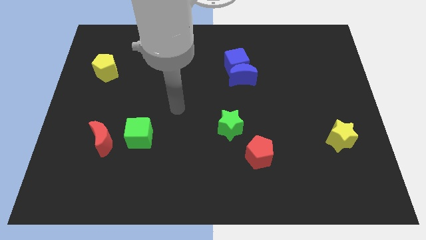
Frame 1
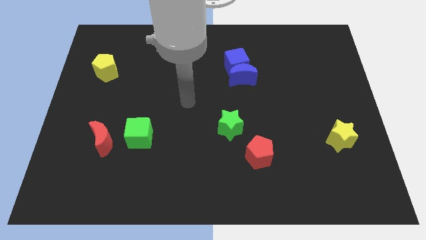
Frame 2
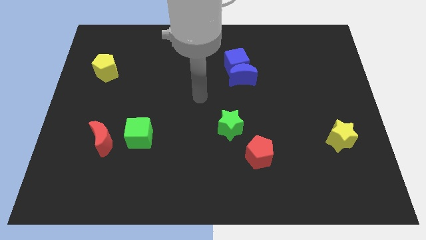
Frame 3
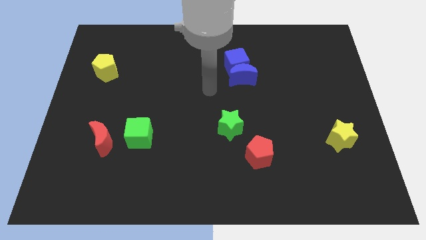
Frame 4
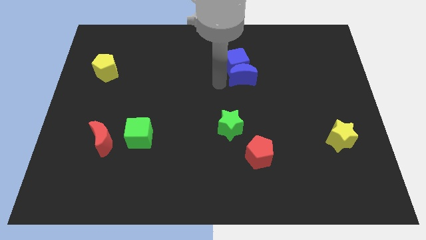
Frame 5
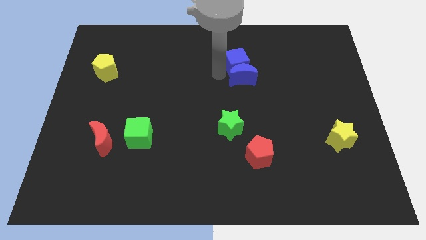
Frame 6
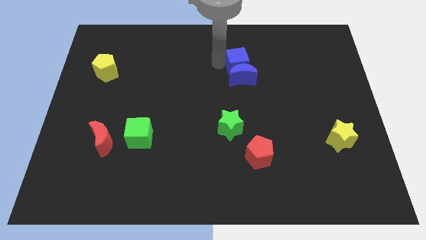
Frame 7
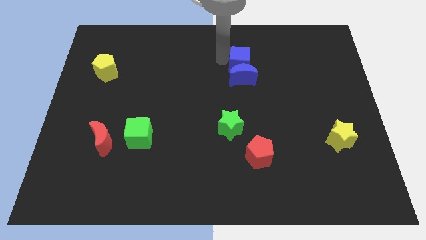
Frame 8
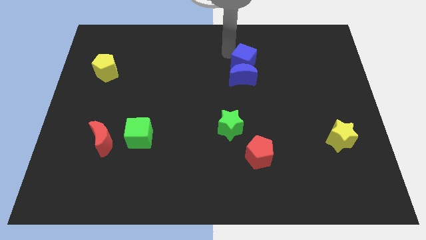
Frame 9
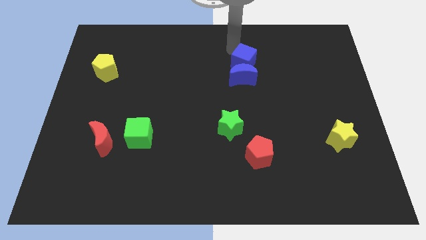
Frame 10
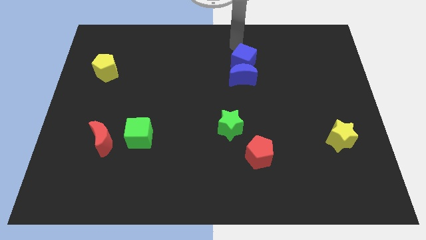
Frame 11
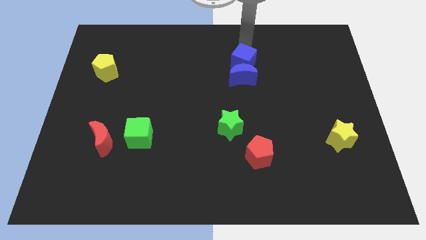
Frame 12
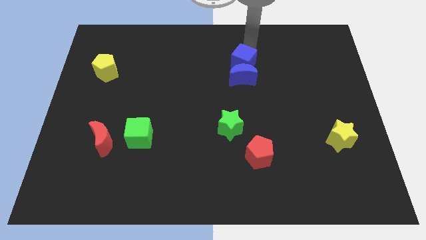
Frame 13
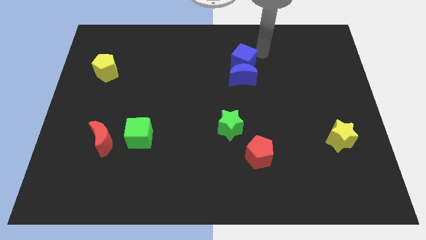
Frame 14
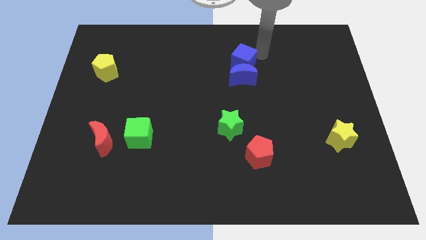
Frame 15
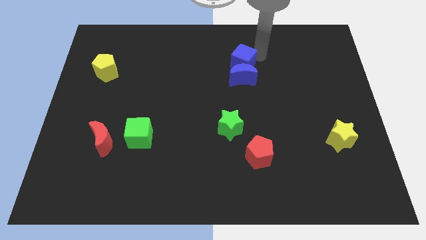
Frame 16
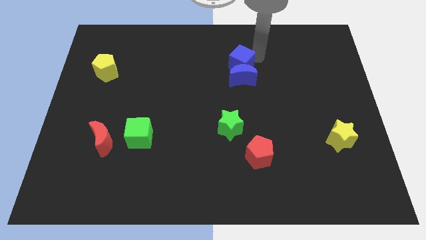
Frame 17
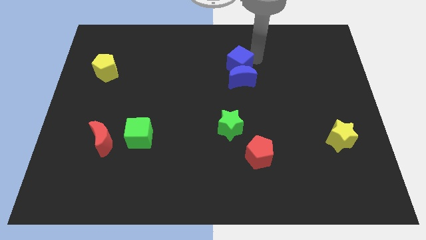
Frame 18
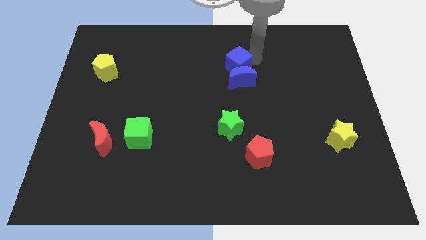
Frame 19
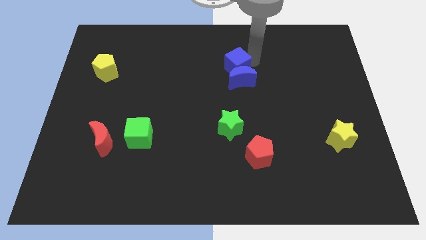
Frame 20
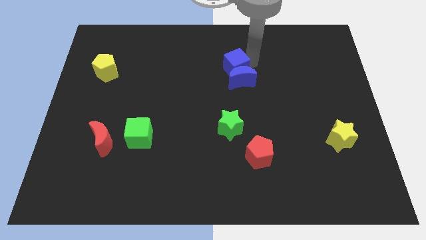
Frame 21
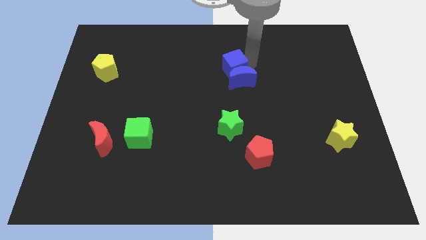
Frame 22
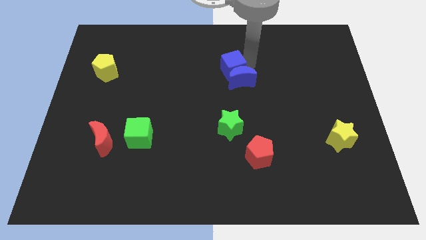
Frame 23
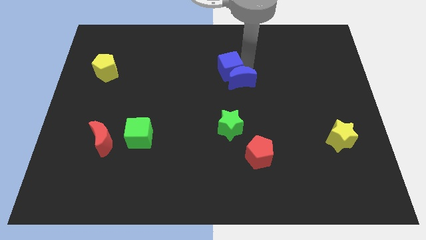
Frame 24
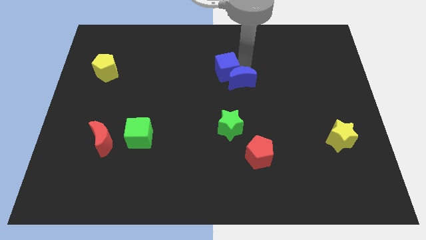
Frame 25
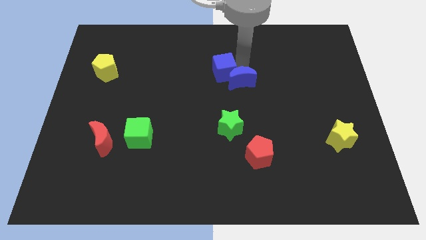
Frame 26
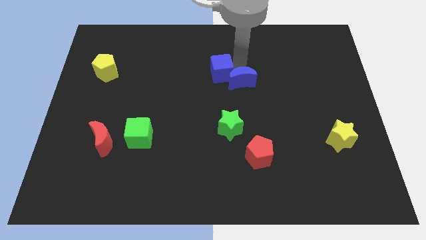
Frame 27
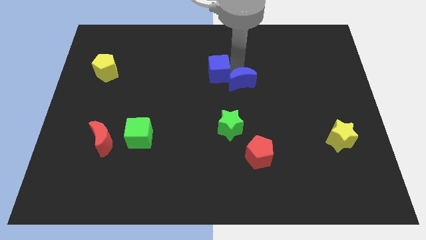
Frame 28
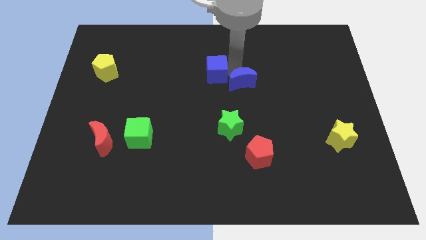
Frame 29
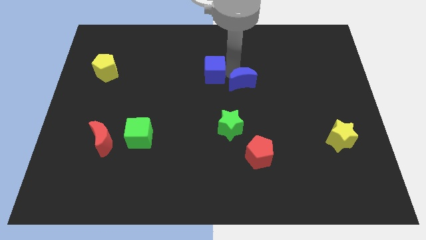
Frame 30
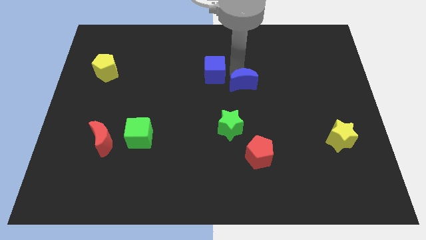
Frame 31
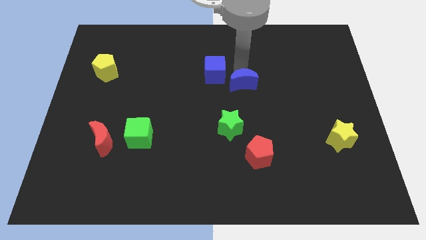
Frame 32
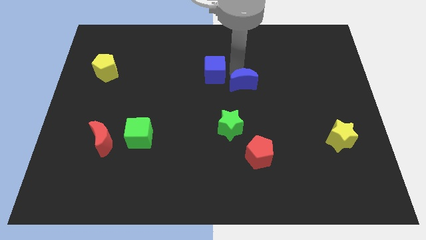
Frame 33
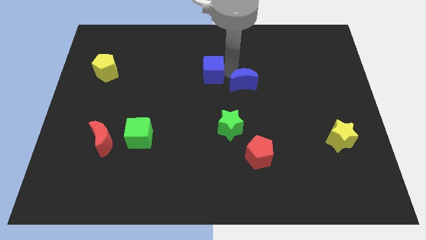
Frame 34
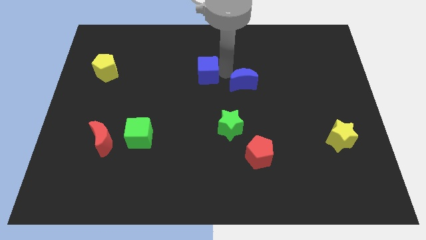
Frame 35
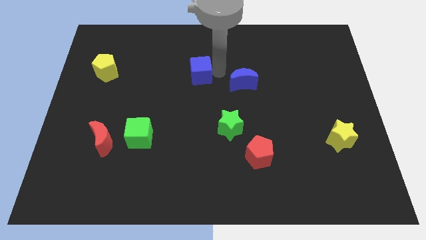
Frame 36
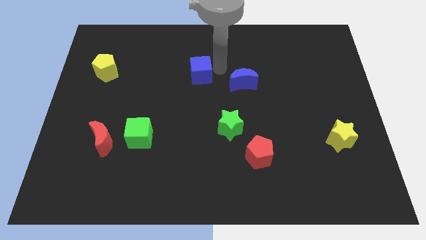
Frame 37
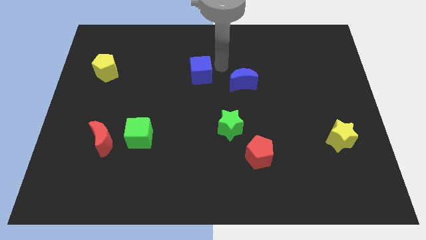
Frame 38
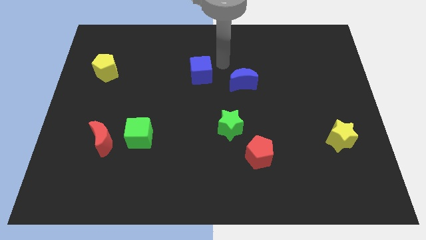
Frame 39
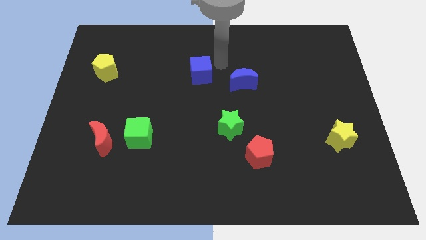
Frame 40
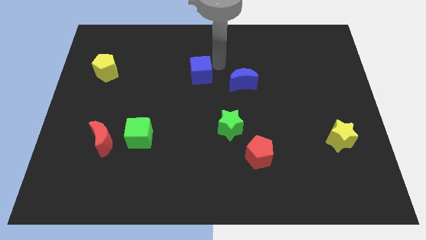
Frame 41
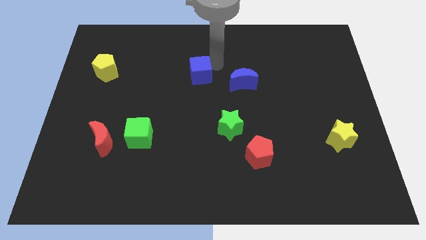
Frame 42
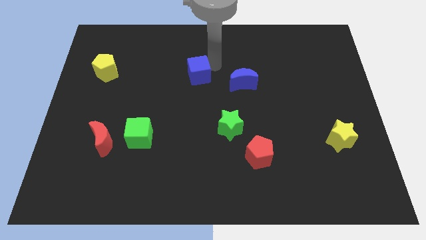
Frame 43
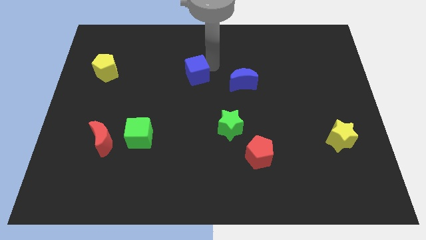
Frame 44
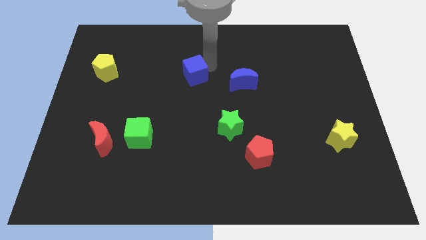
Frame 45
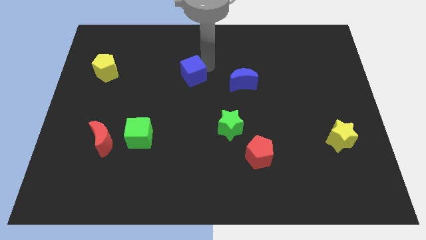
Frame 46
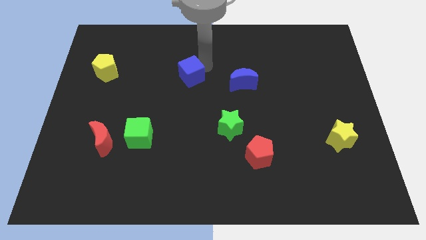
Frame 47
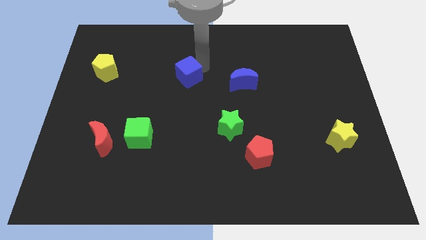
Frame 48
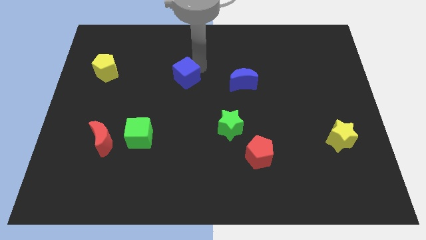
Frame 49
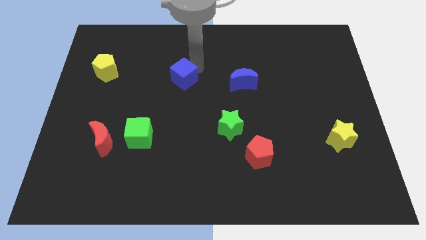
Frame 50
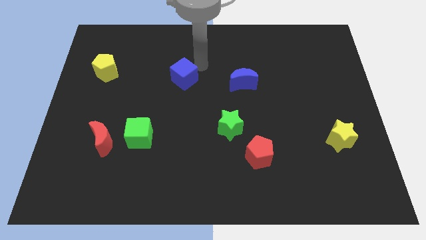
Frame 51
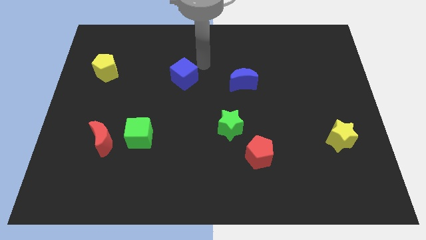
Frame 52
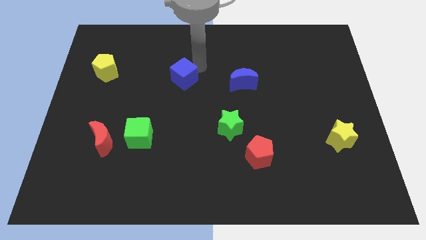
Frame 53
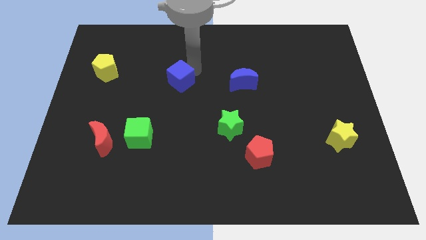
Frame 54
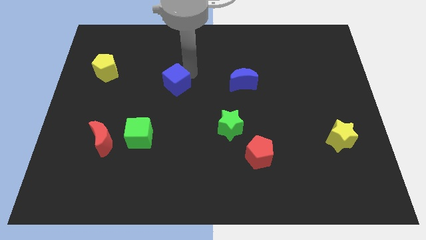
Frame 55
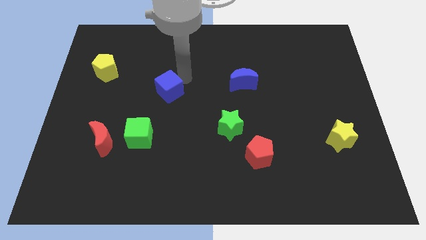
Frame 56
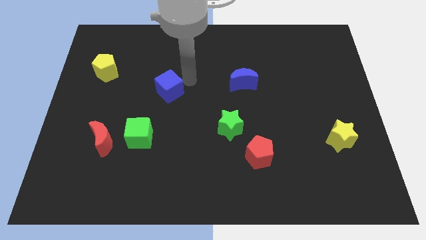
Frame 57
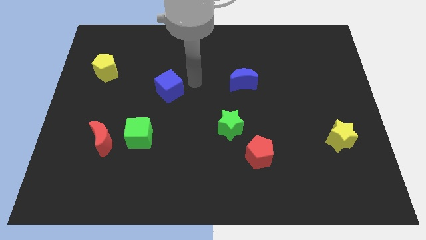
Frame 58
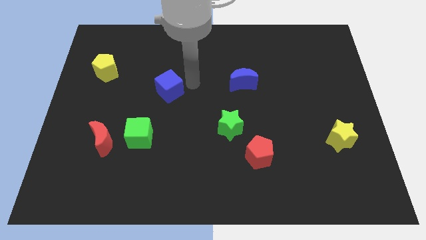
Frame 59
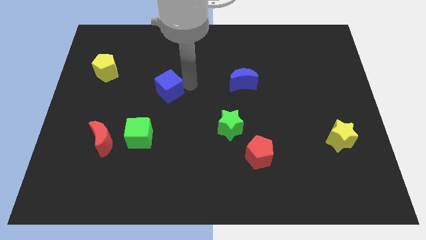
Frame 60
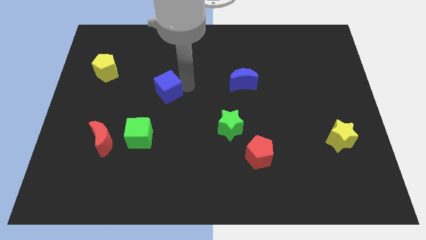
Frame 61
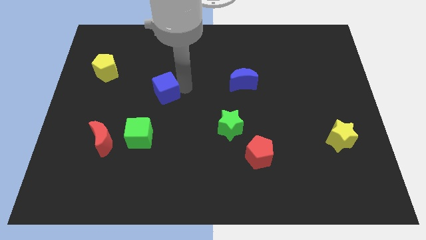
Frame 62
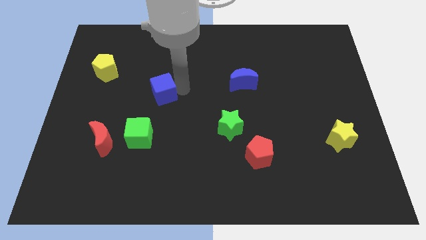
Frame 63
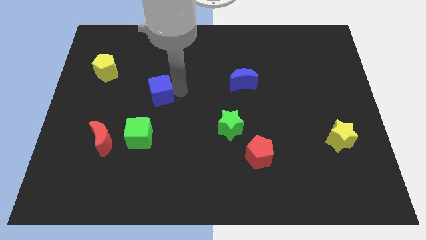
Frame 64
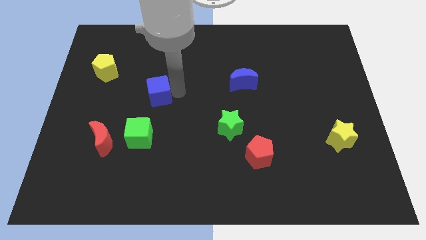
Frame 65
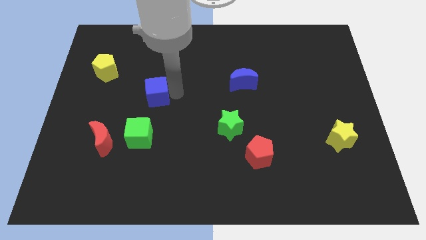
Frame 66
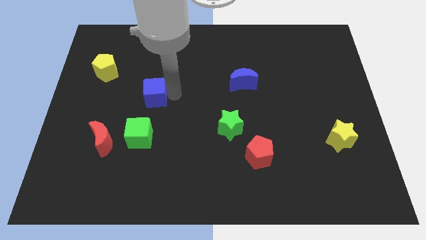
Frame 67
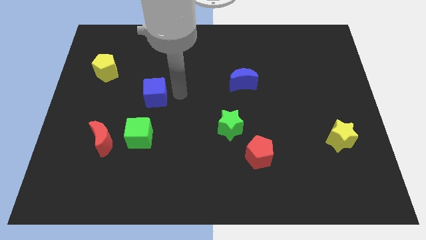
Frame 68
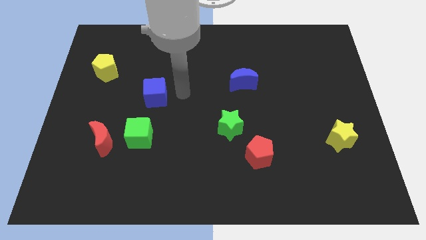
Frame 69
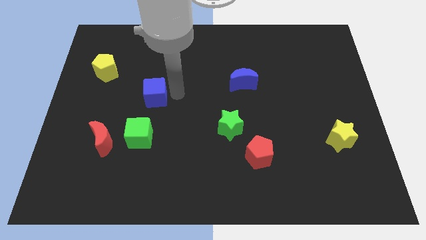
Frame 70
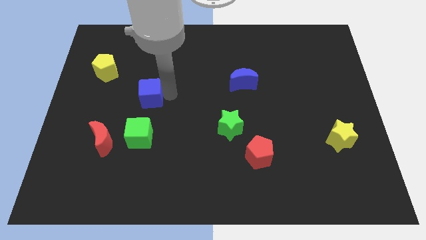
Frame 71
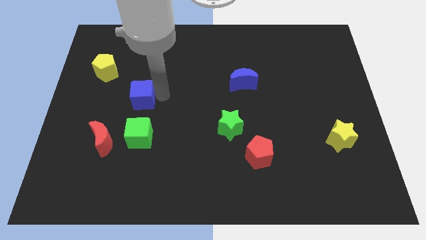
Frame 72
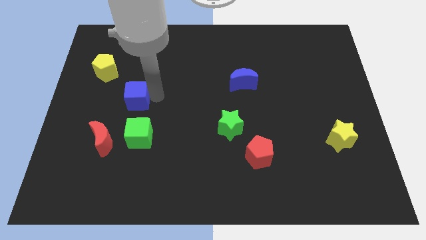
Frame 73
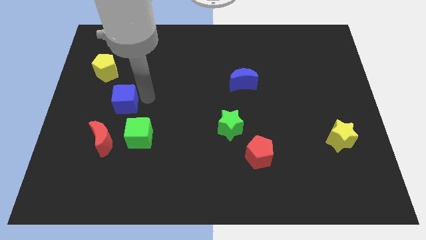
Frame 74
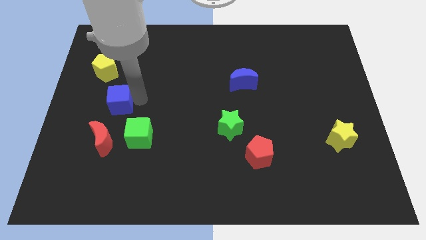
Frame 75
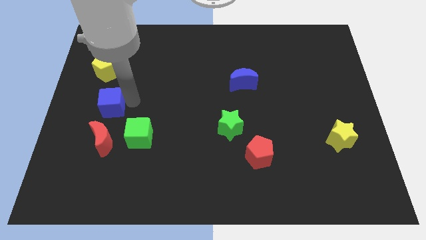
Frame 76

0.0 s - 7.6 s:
move the blue cube to the bottom side of the yellow pentagon
